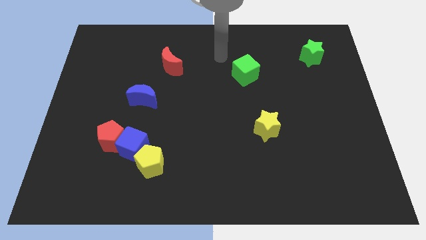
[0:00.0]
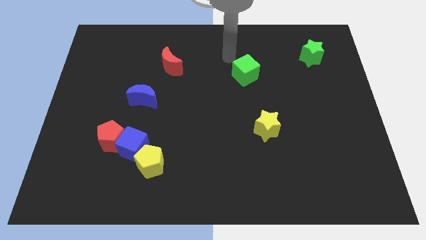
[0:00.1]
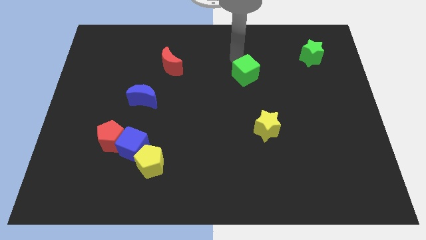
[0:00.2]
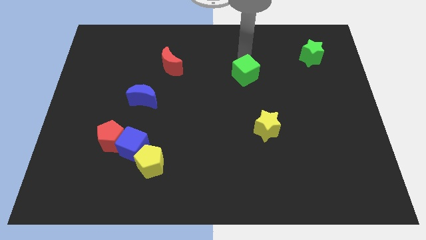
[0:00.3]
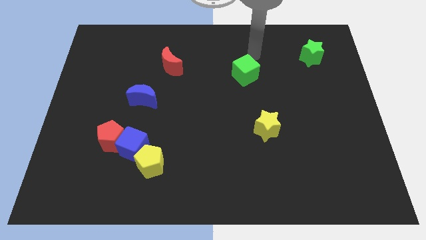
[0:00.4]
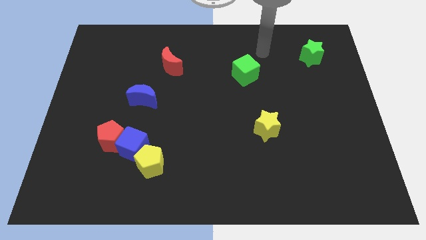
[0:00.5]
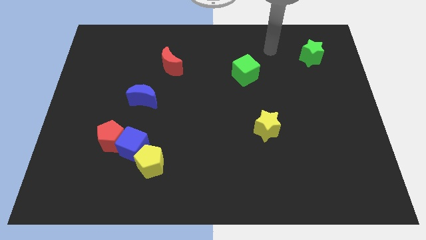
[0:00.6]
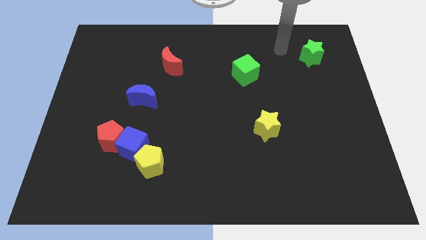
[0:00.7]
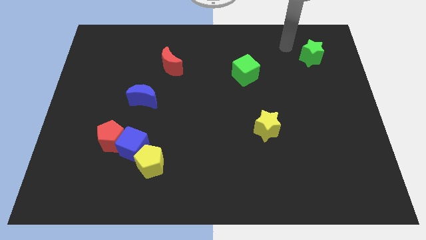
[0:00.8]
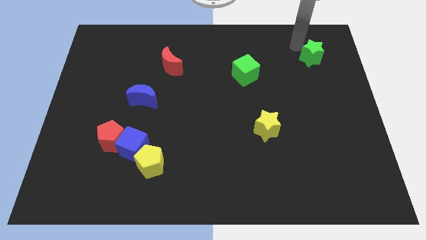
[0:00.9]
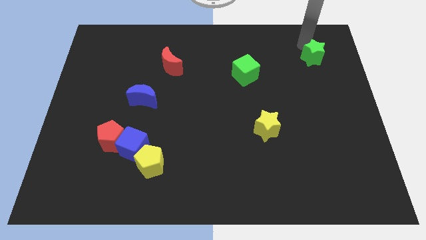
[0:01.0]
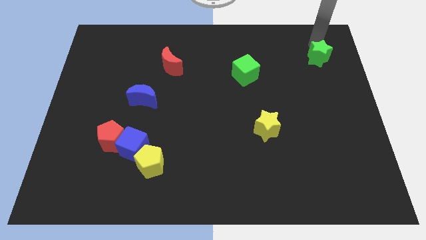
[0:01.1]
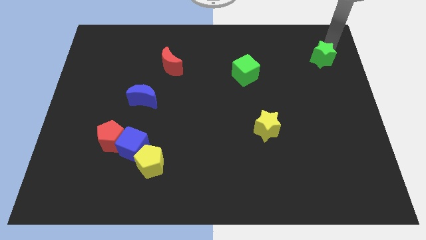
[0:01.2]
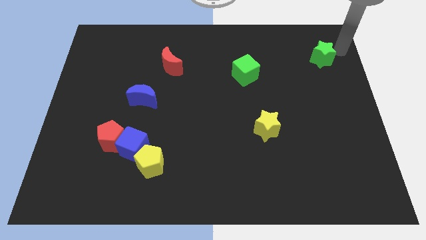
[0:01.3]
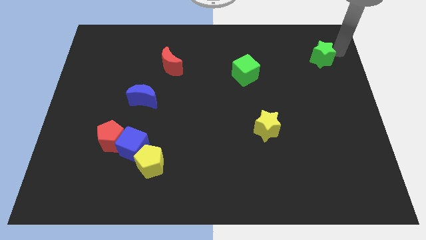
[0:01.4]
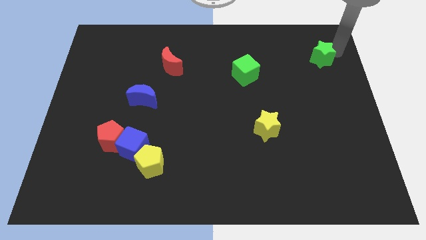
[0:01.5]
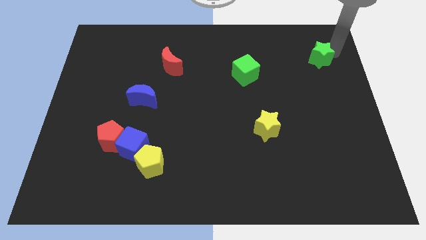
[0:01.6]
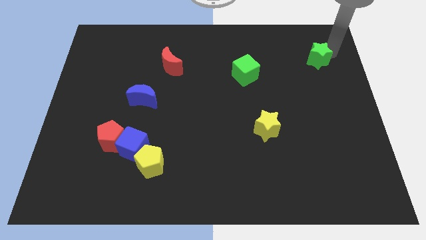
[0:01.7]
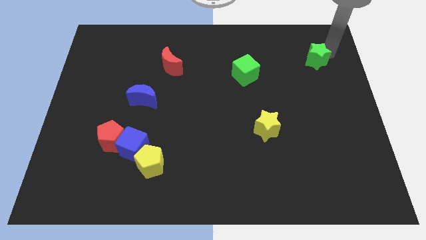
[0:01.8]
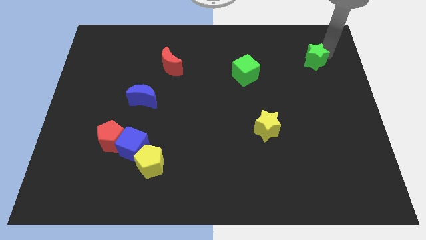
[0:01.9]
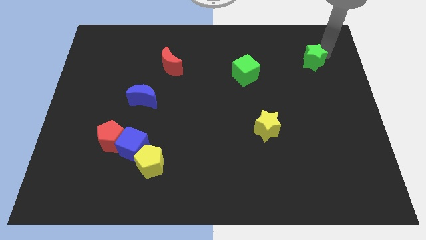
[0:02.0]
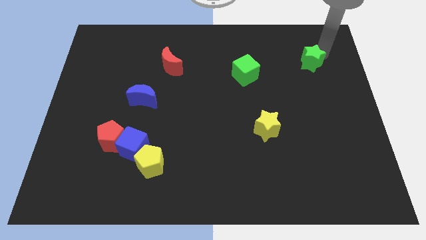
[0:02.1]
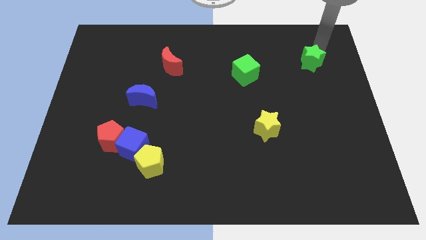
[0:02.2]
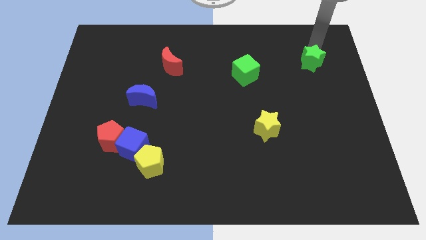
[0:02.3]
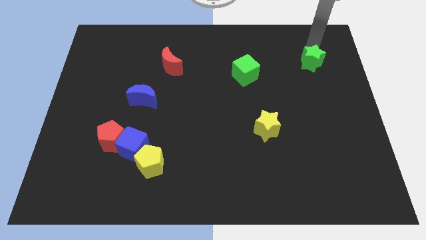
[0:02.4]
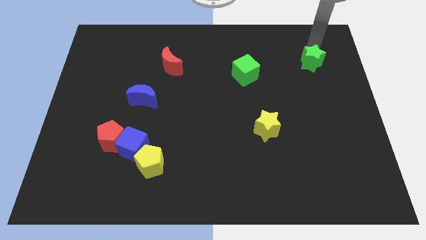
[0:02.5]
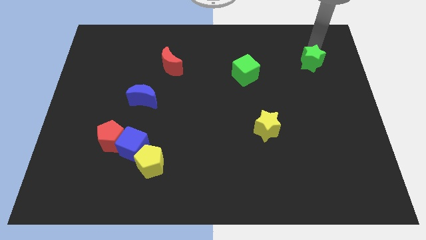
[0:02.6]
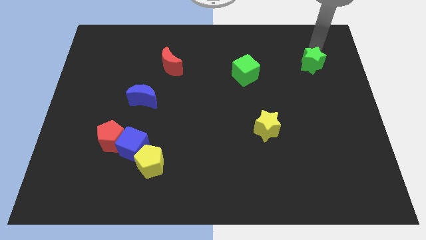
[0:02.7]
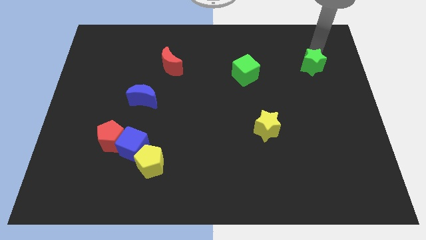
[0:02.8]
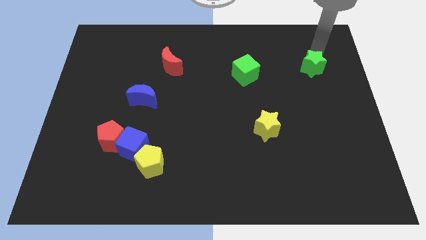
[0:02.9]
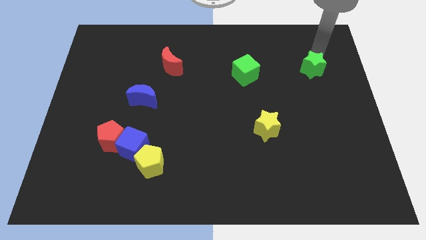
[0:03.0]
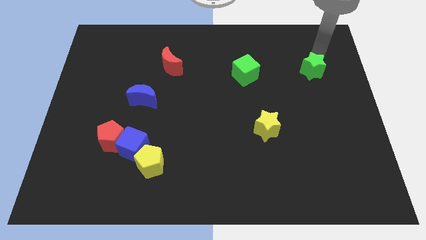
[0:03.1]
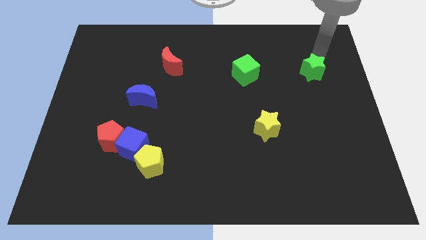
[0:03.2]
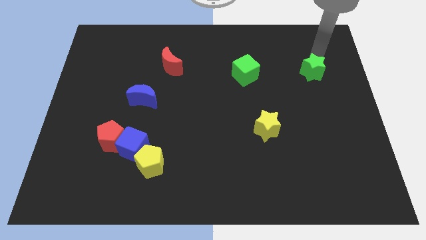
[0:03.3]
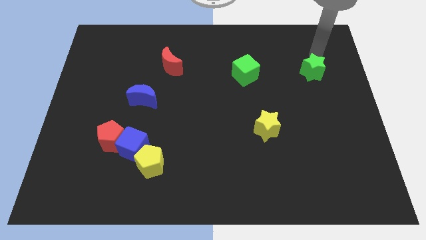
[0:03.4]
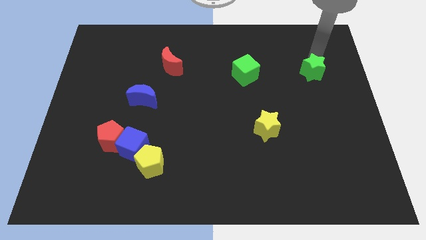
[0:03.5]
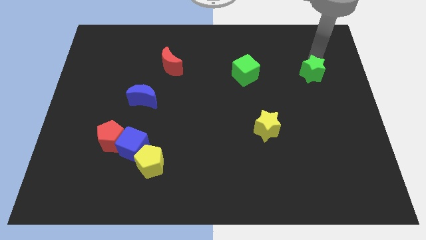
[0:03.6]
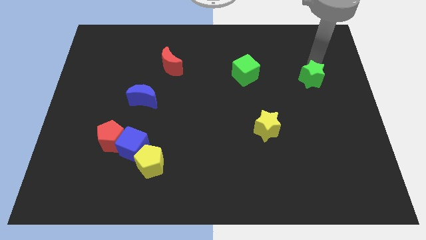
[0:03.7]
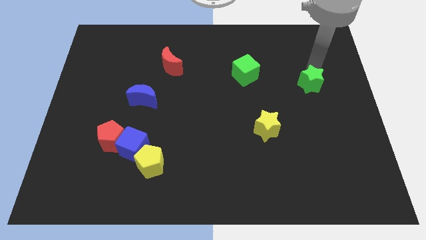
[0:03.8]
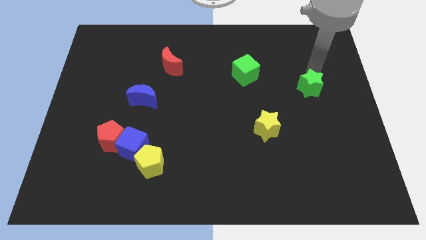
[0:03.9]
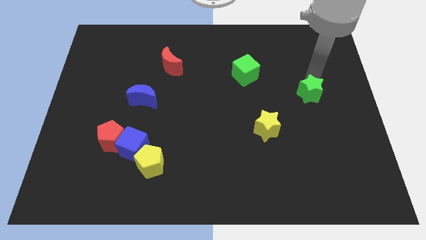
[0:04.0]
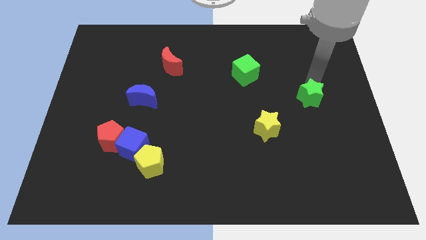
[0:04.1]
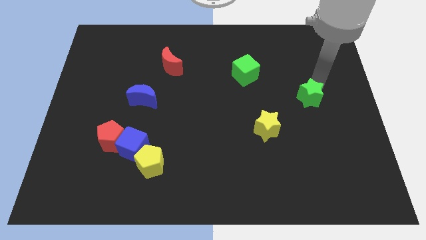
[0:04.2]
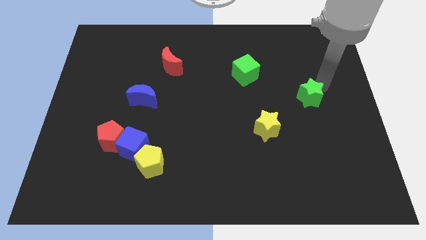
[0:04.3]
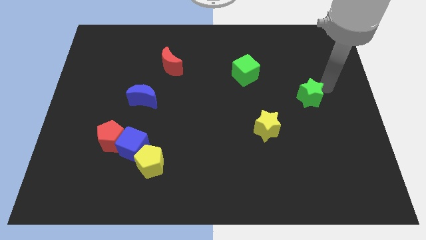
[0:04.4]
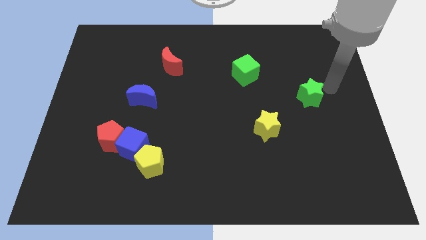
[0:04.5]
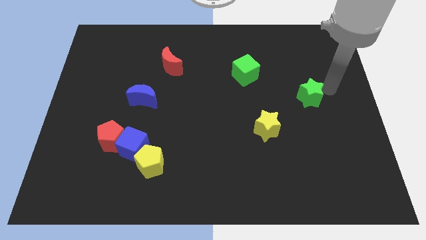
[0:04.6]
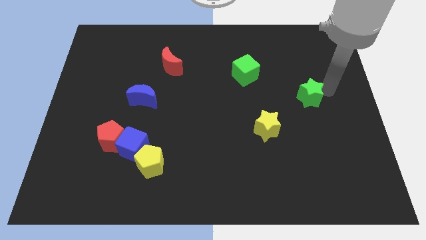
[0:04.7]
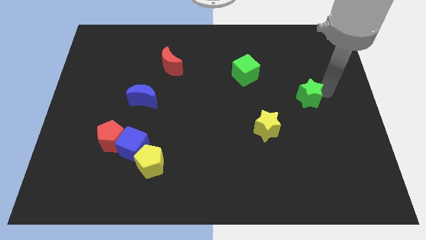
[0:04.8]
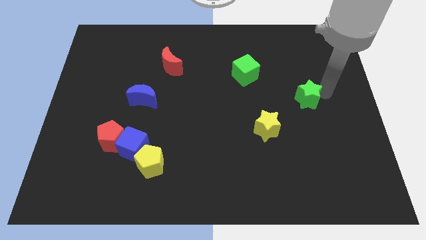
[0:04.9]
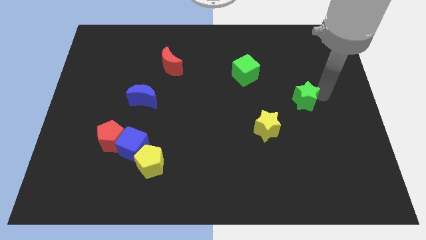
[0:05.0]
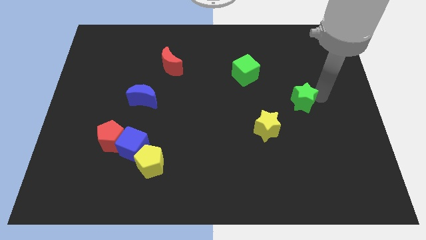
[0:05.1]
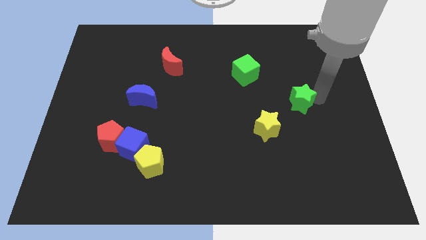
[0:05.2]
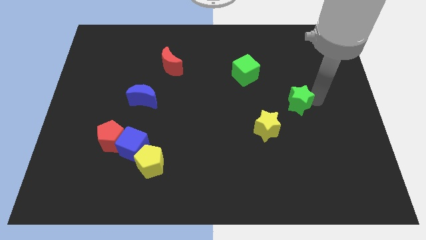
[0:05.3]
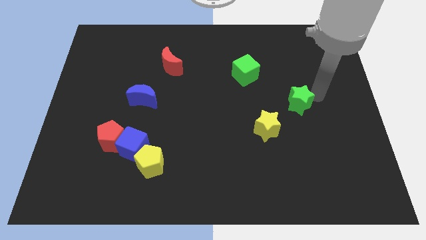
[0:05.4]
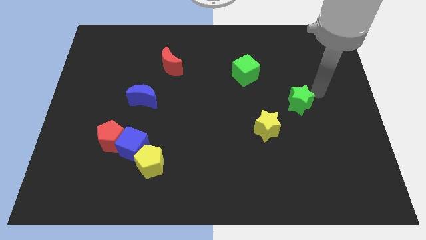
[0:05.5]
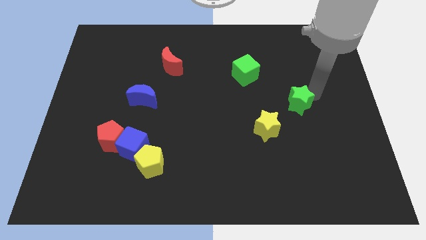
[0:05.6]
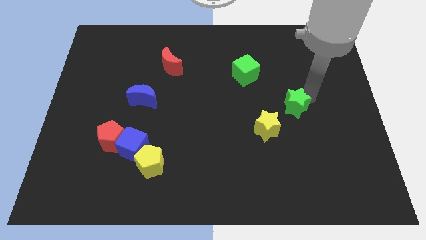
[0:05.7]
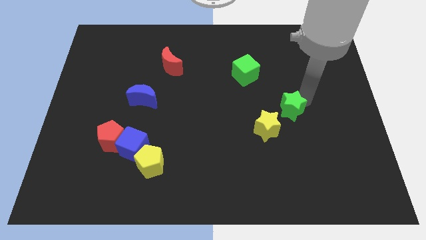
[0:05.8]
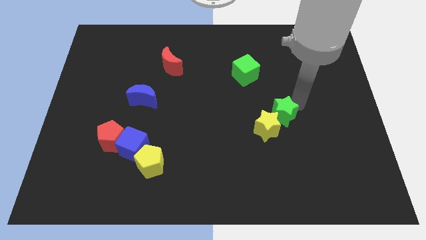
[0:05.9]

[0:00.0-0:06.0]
push the green star to the yellow star

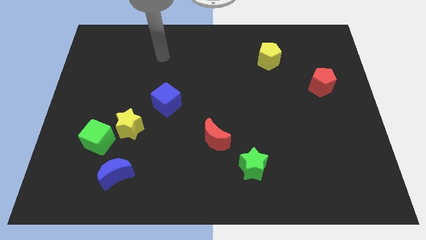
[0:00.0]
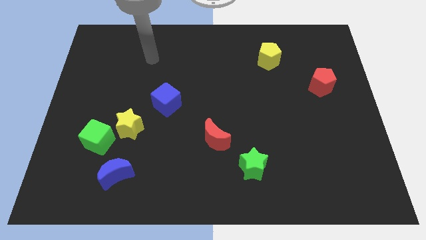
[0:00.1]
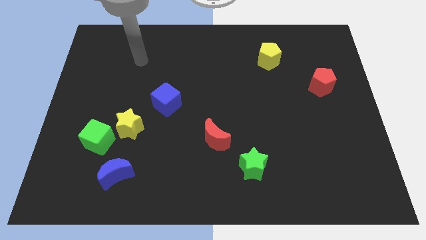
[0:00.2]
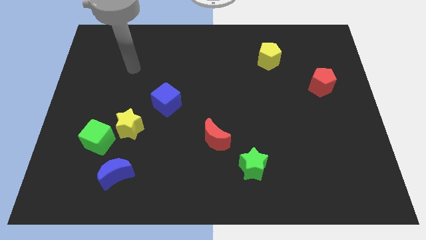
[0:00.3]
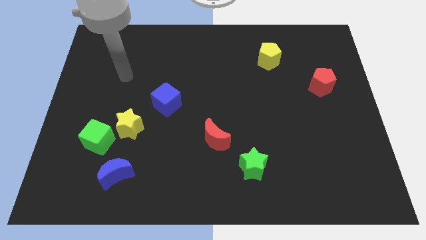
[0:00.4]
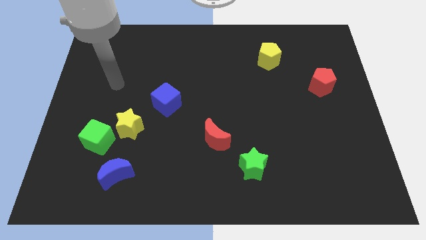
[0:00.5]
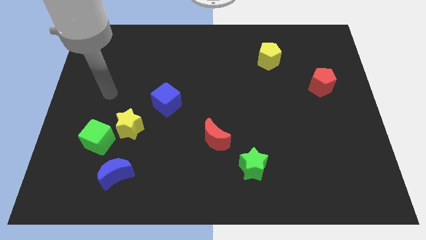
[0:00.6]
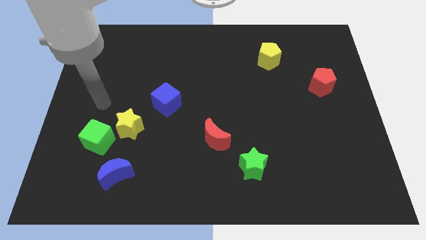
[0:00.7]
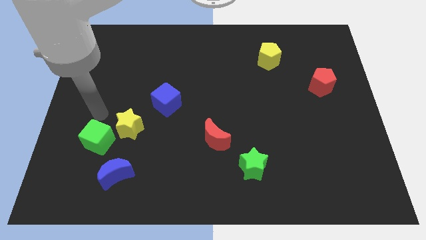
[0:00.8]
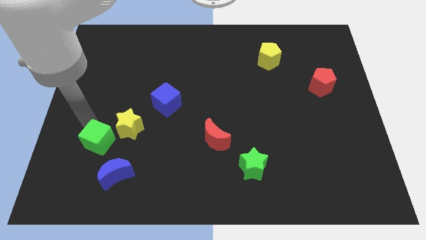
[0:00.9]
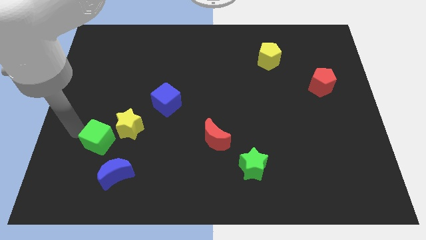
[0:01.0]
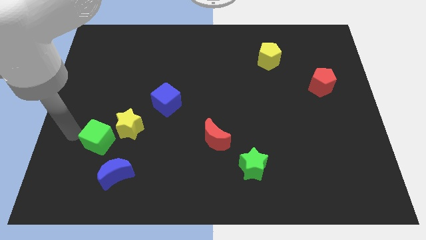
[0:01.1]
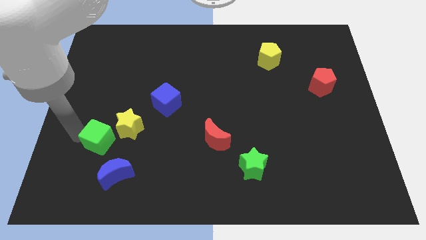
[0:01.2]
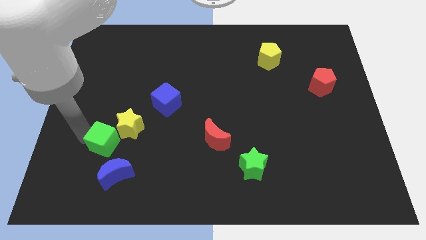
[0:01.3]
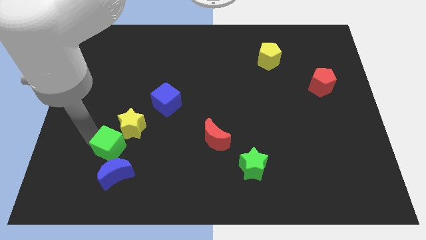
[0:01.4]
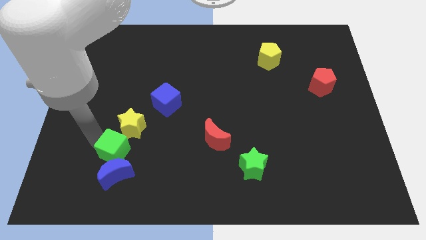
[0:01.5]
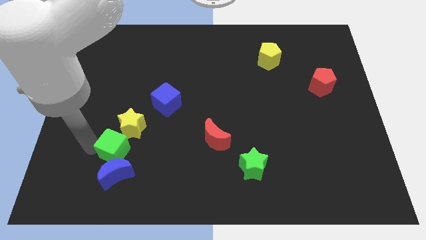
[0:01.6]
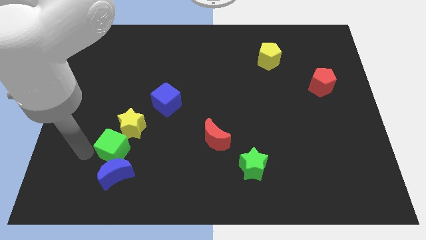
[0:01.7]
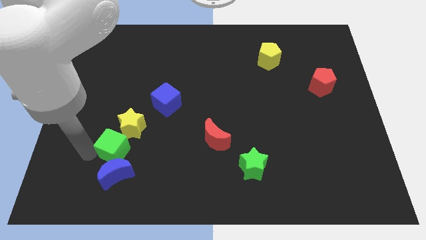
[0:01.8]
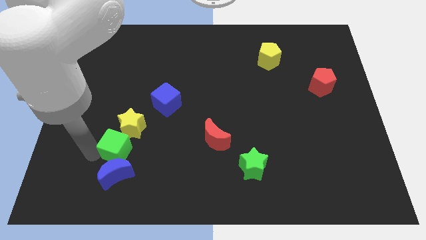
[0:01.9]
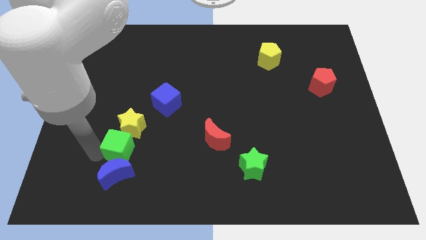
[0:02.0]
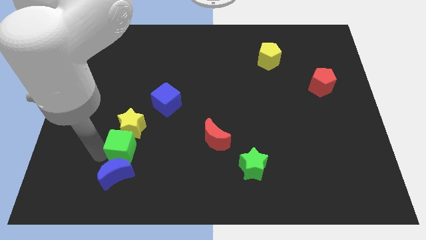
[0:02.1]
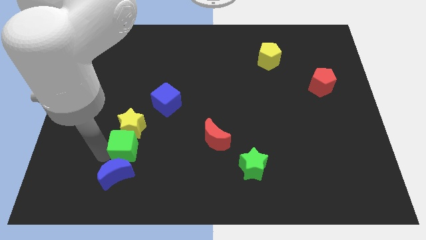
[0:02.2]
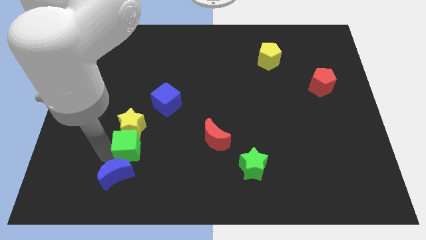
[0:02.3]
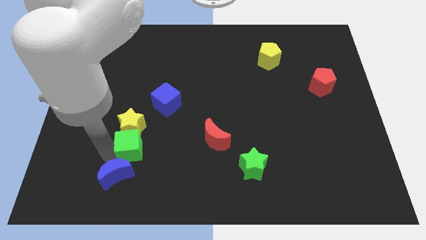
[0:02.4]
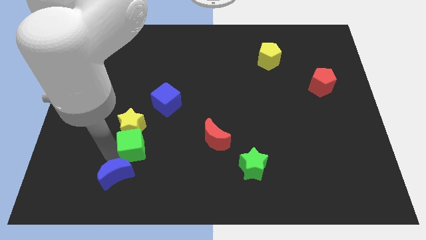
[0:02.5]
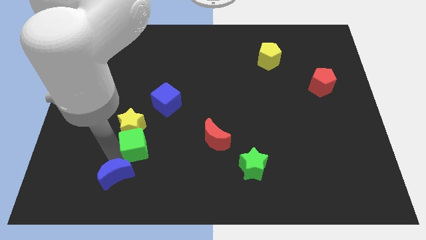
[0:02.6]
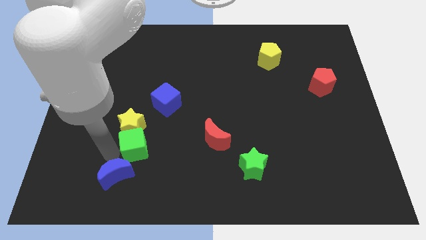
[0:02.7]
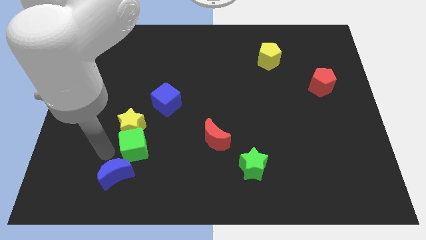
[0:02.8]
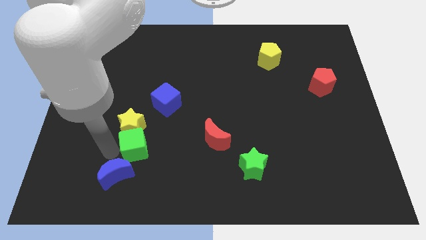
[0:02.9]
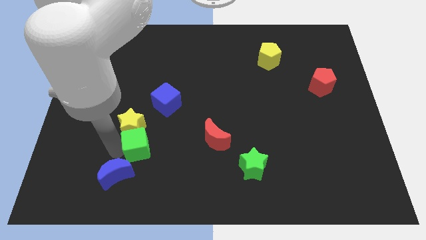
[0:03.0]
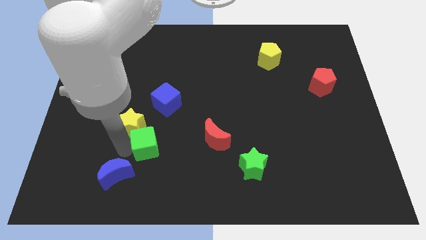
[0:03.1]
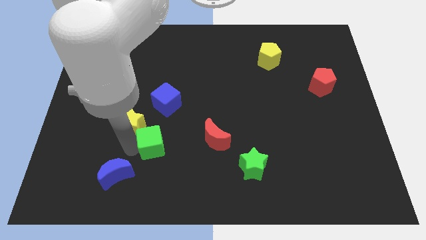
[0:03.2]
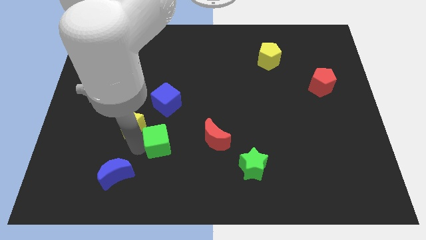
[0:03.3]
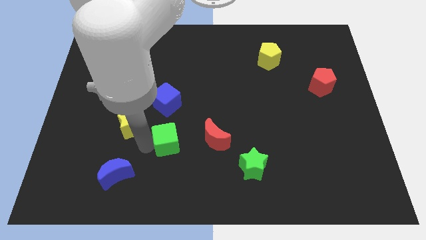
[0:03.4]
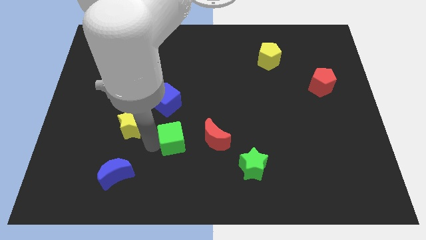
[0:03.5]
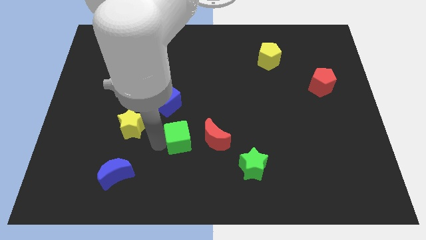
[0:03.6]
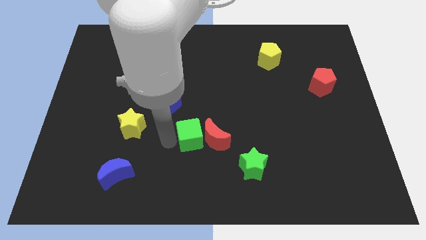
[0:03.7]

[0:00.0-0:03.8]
move the green cube next to the red moon
